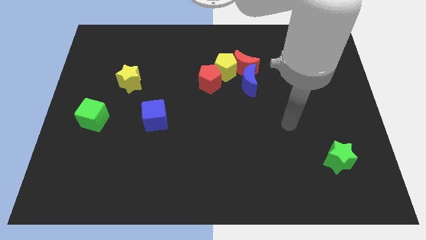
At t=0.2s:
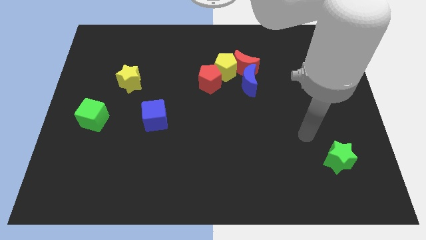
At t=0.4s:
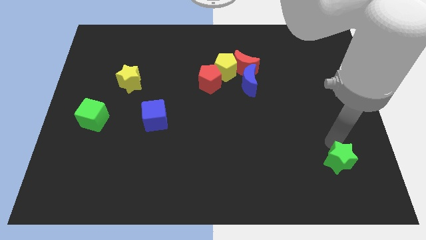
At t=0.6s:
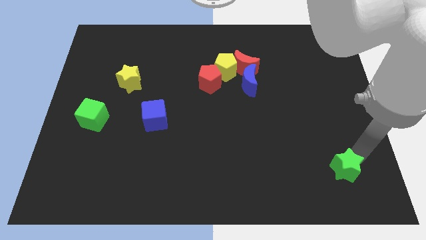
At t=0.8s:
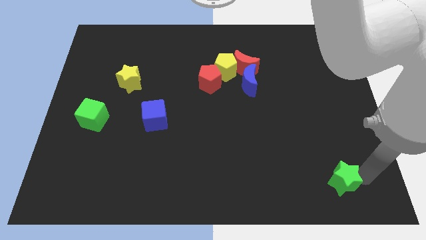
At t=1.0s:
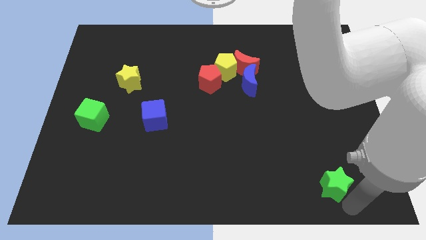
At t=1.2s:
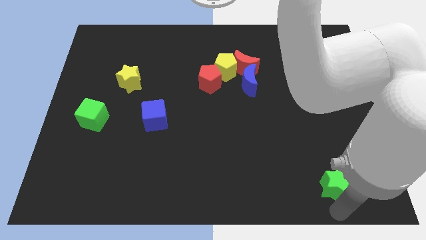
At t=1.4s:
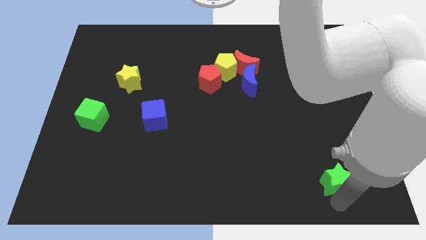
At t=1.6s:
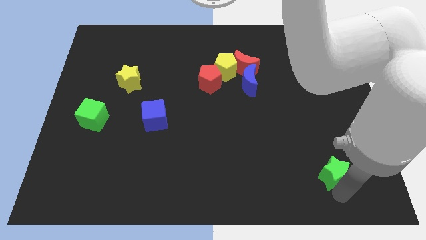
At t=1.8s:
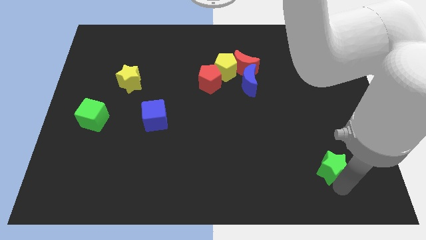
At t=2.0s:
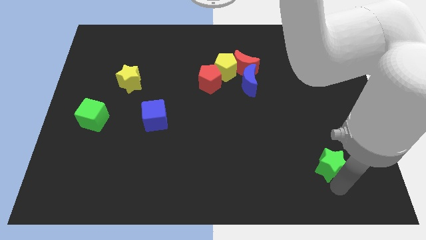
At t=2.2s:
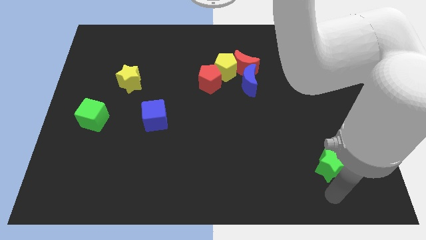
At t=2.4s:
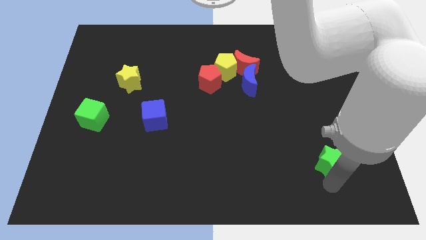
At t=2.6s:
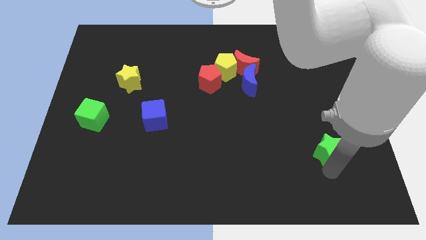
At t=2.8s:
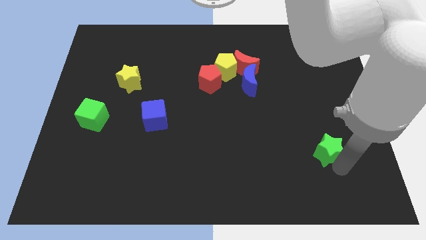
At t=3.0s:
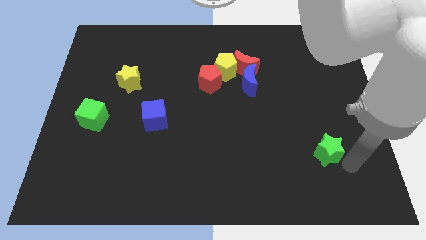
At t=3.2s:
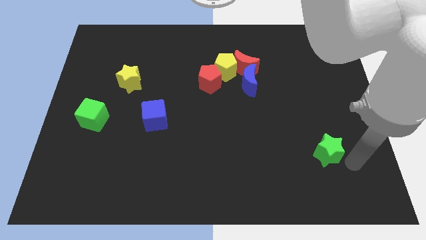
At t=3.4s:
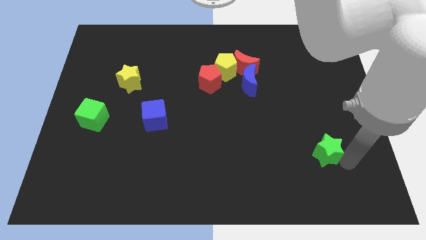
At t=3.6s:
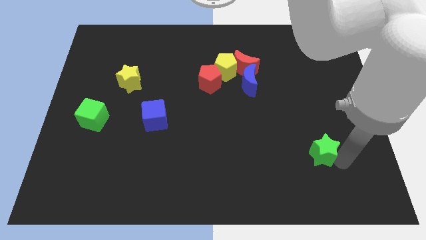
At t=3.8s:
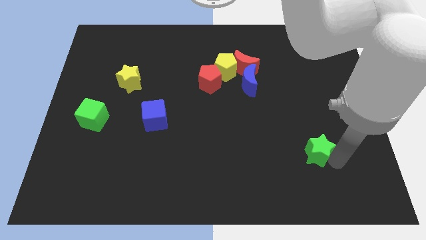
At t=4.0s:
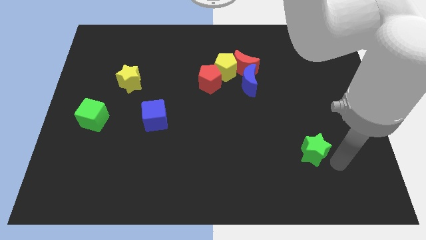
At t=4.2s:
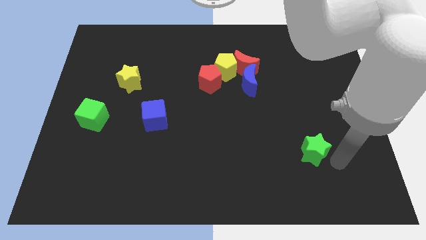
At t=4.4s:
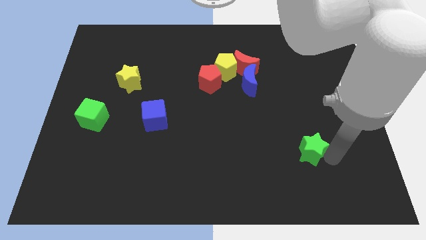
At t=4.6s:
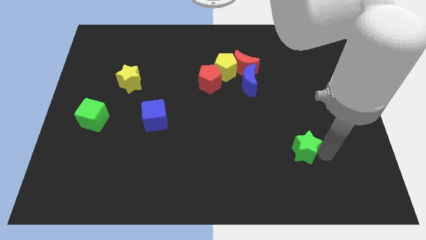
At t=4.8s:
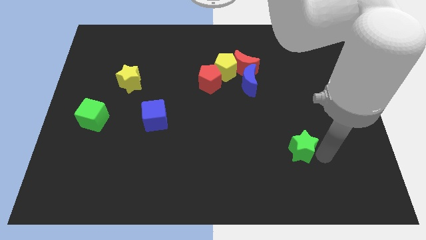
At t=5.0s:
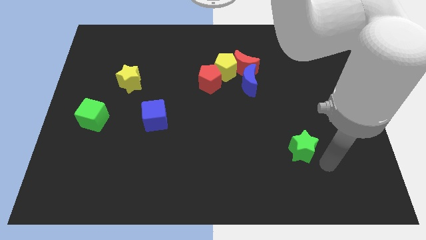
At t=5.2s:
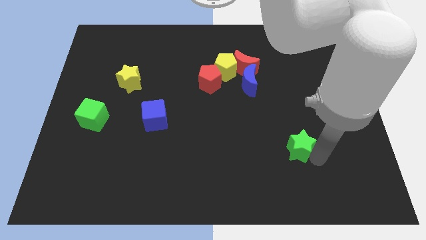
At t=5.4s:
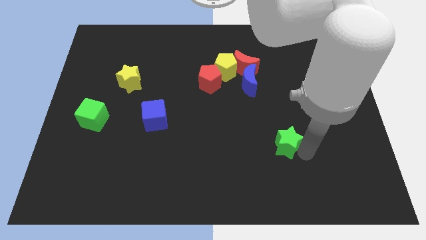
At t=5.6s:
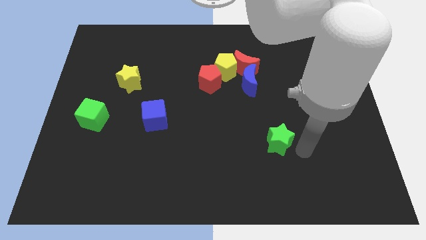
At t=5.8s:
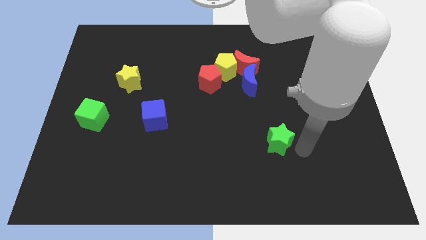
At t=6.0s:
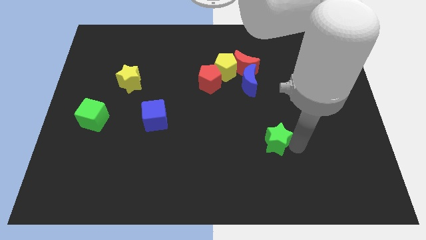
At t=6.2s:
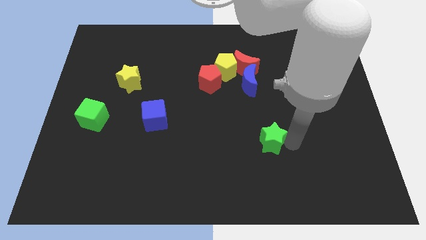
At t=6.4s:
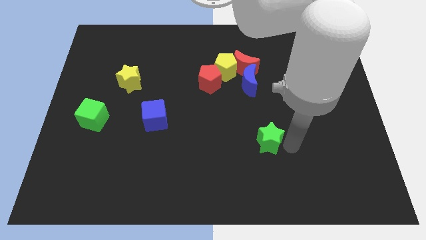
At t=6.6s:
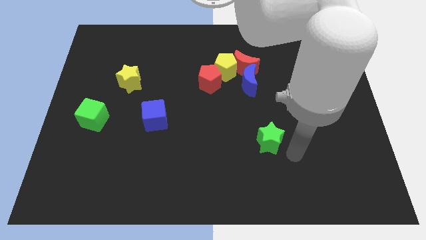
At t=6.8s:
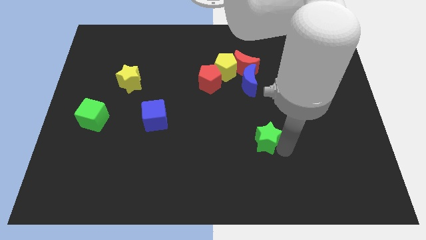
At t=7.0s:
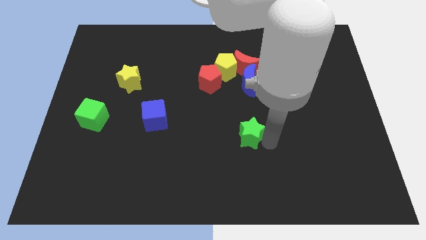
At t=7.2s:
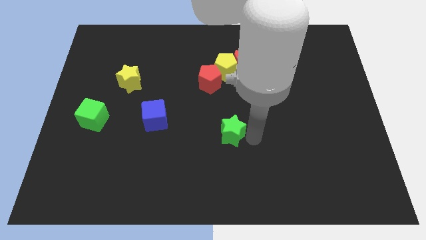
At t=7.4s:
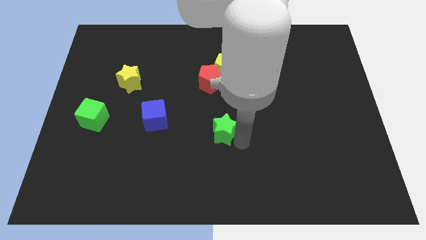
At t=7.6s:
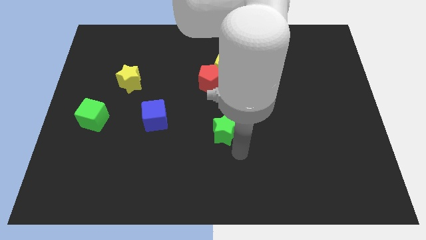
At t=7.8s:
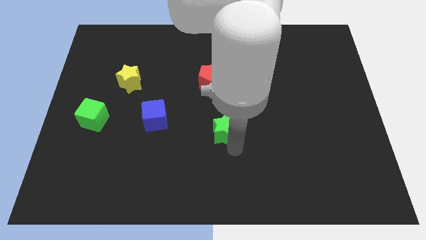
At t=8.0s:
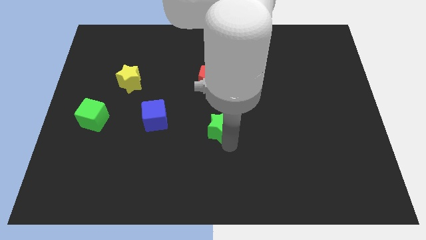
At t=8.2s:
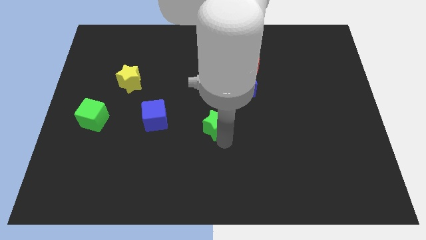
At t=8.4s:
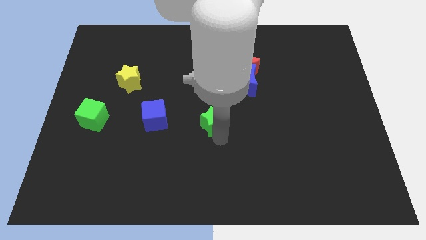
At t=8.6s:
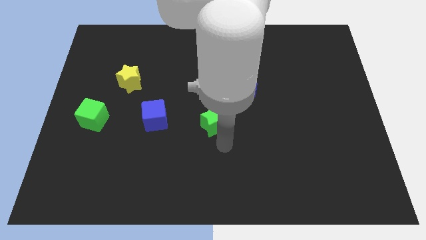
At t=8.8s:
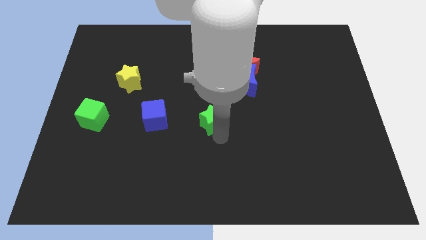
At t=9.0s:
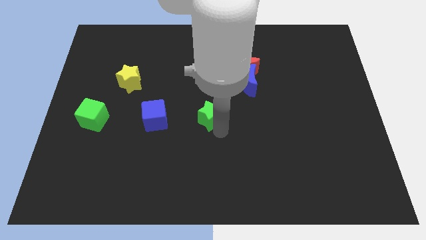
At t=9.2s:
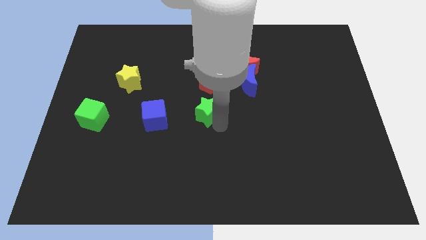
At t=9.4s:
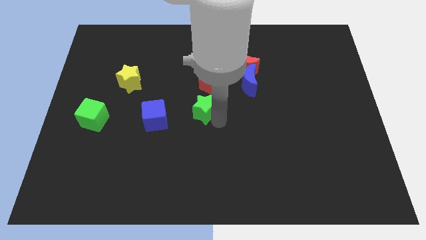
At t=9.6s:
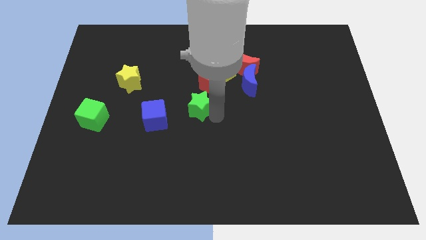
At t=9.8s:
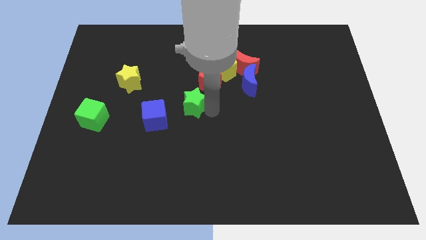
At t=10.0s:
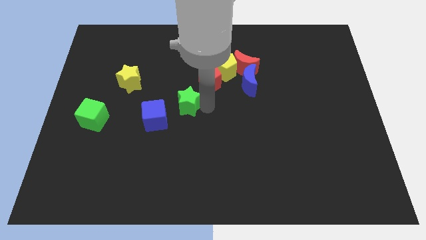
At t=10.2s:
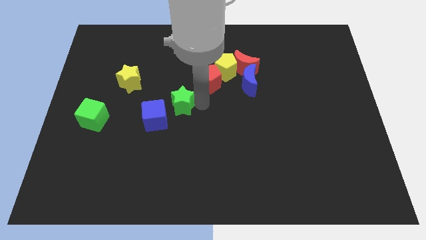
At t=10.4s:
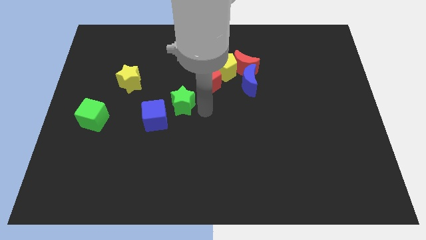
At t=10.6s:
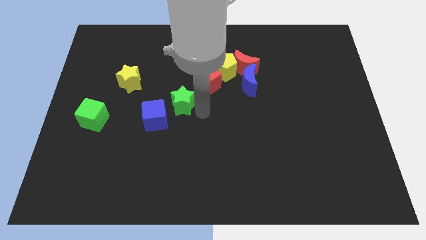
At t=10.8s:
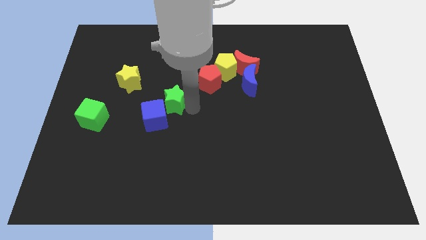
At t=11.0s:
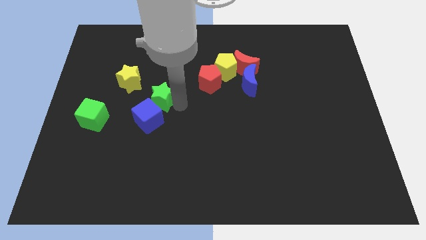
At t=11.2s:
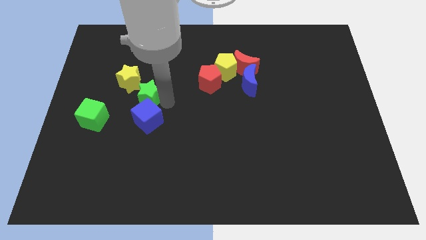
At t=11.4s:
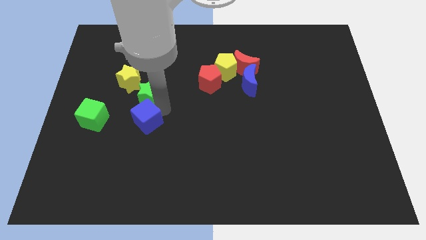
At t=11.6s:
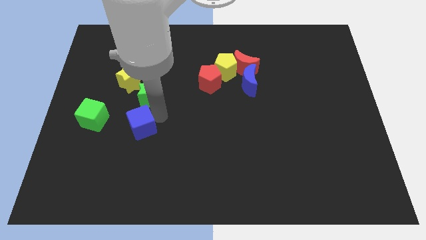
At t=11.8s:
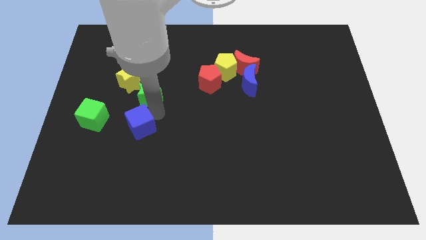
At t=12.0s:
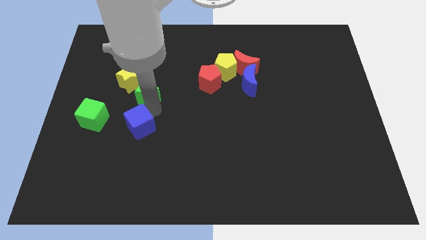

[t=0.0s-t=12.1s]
put the green star next to the yellow star

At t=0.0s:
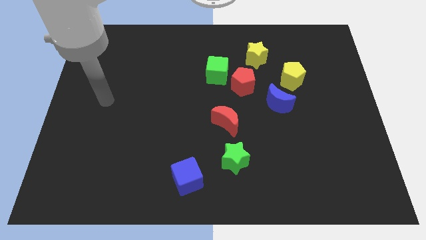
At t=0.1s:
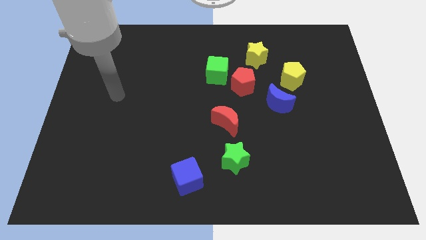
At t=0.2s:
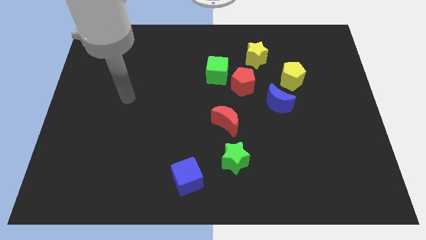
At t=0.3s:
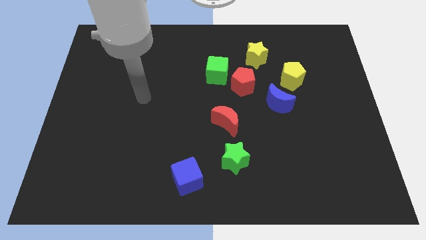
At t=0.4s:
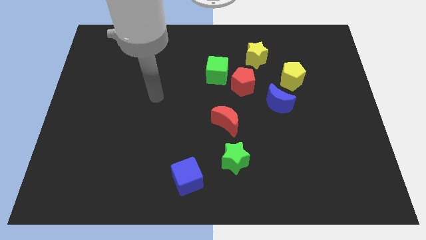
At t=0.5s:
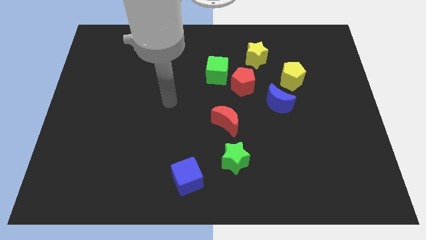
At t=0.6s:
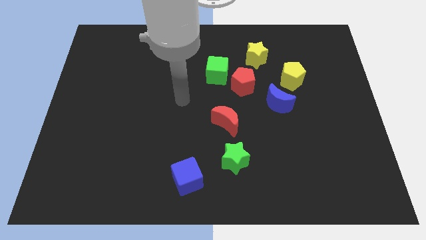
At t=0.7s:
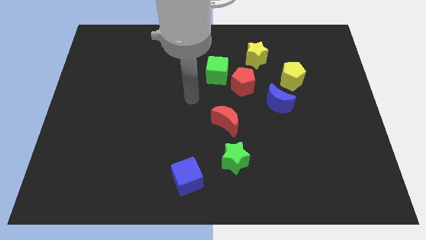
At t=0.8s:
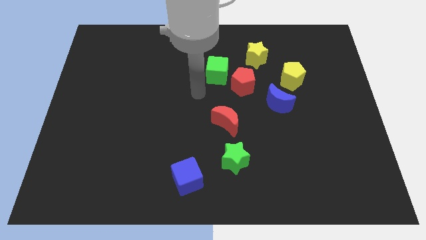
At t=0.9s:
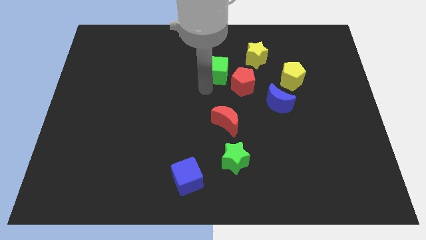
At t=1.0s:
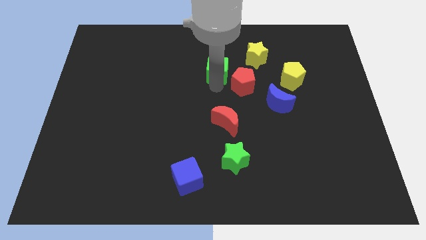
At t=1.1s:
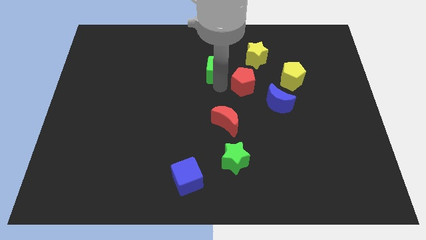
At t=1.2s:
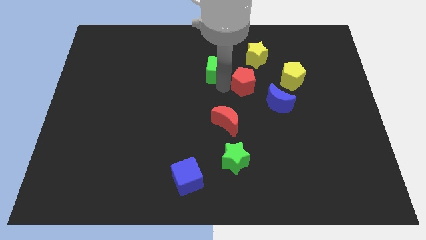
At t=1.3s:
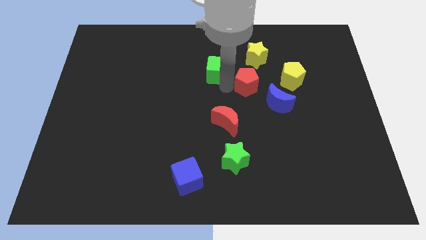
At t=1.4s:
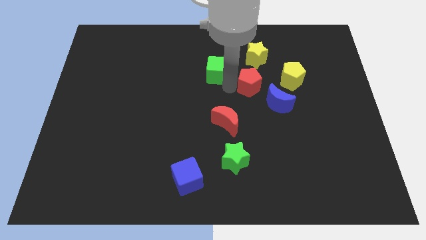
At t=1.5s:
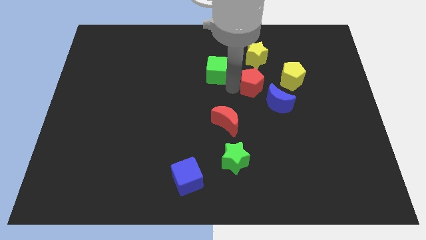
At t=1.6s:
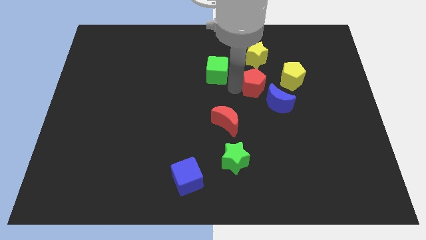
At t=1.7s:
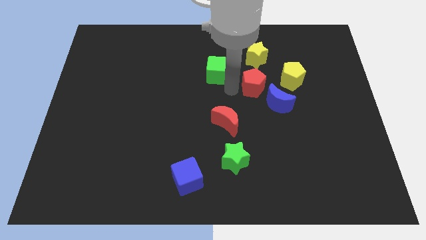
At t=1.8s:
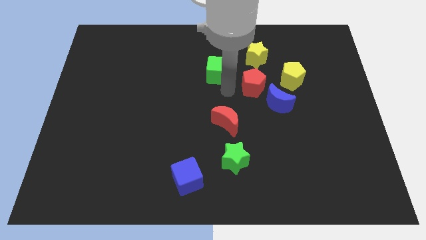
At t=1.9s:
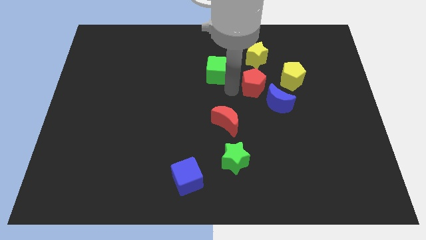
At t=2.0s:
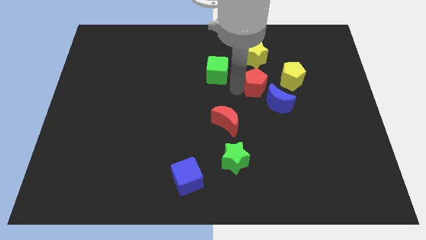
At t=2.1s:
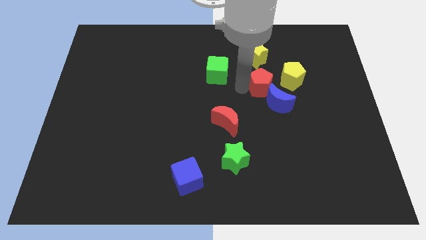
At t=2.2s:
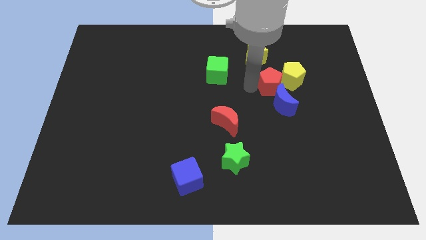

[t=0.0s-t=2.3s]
slide the red pentagon to the yellow pentagon
